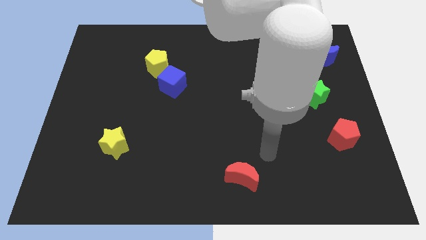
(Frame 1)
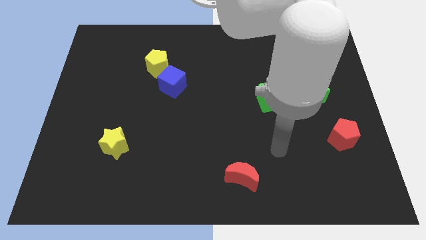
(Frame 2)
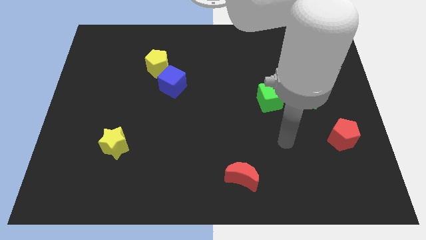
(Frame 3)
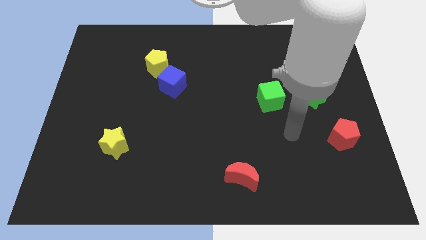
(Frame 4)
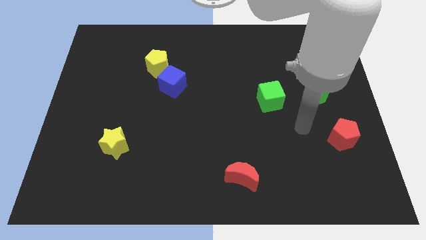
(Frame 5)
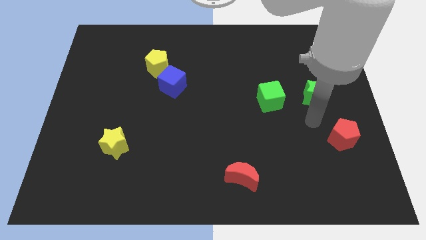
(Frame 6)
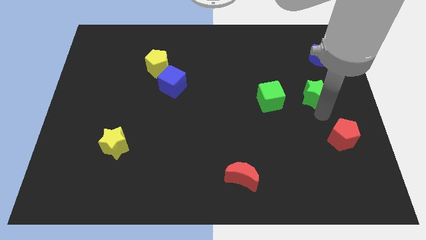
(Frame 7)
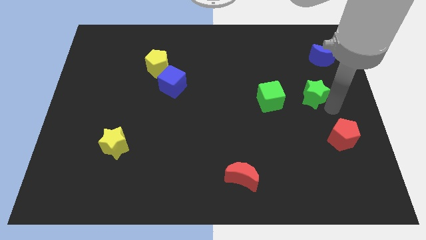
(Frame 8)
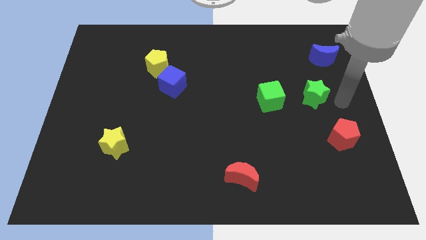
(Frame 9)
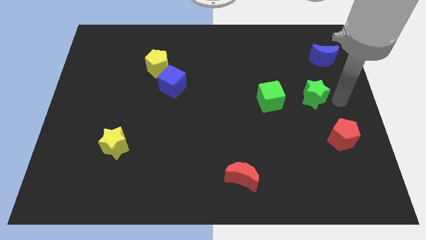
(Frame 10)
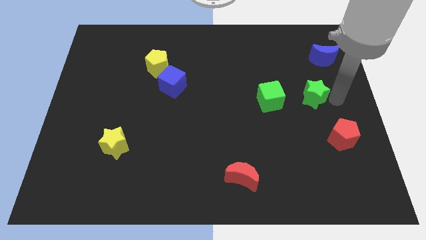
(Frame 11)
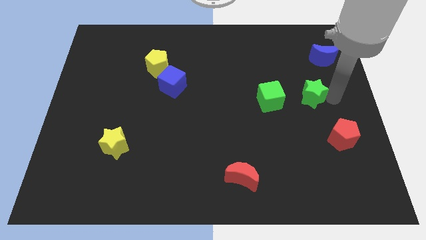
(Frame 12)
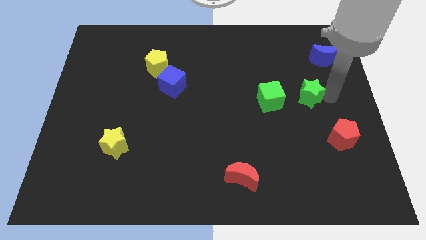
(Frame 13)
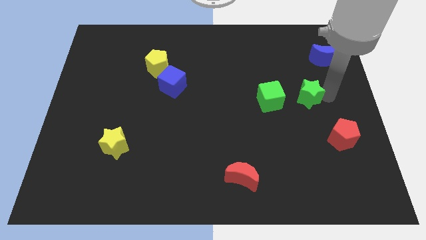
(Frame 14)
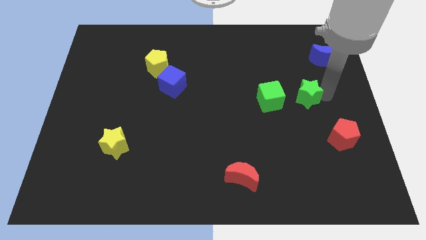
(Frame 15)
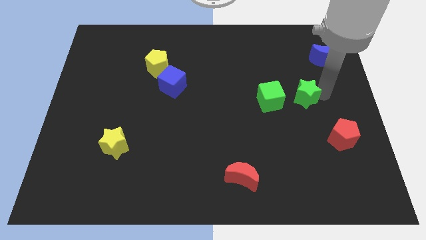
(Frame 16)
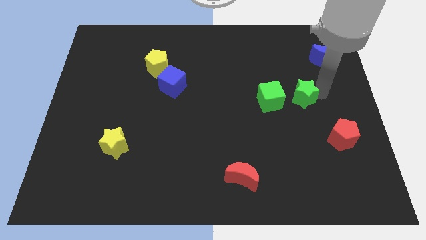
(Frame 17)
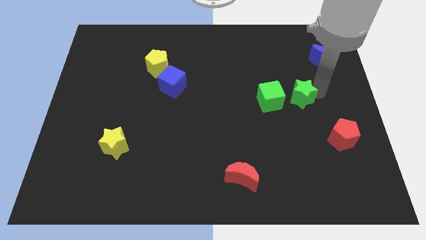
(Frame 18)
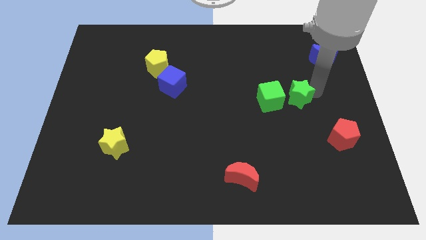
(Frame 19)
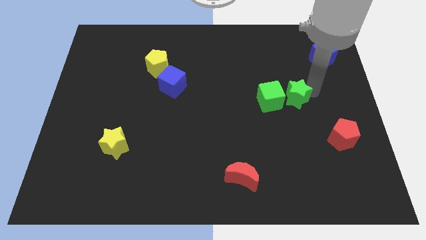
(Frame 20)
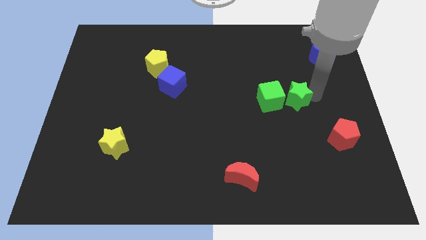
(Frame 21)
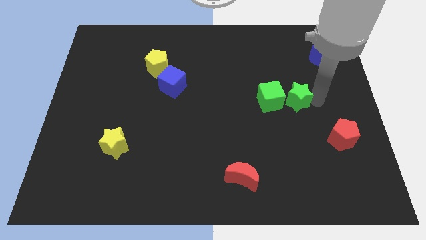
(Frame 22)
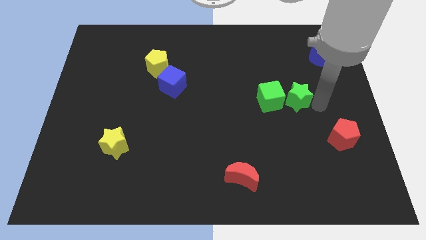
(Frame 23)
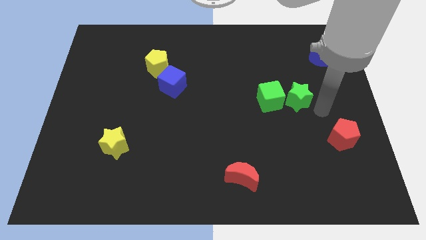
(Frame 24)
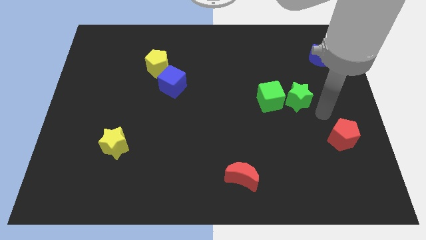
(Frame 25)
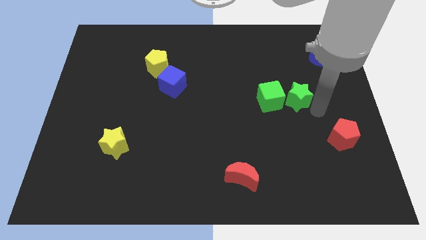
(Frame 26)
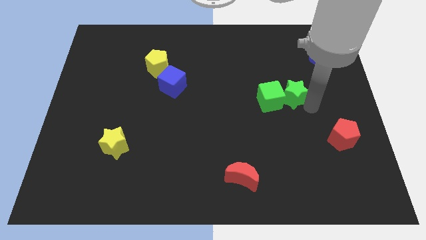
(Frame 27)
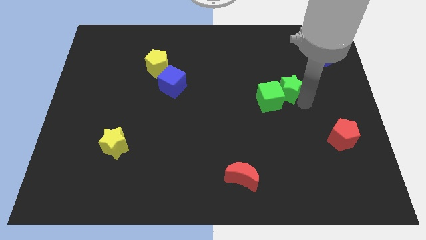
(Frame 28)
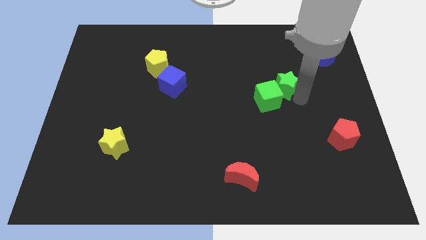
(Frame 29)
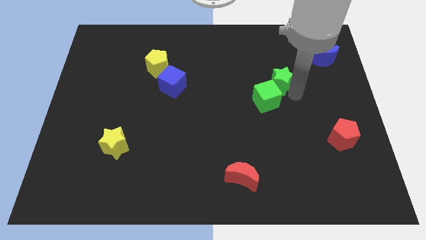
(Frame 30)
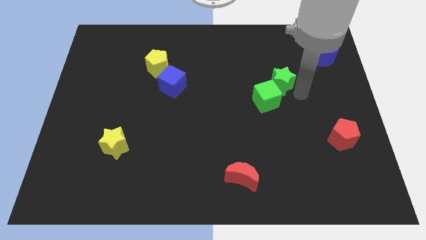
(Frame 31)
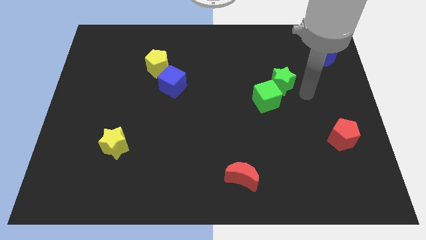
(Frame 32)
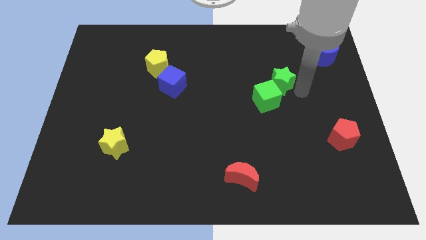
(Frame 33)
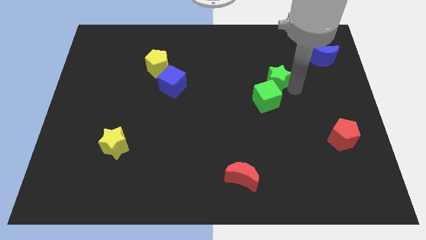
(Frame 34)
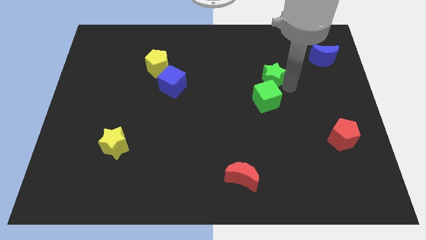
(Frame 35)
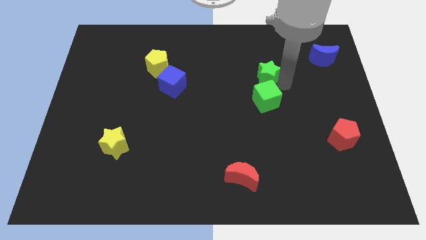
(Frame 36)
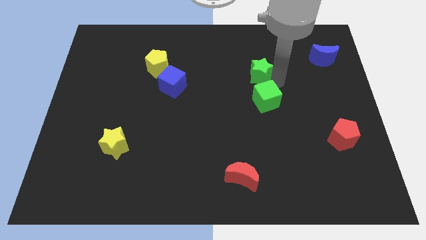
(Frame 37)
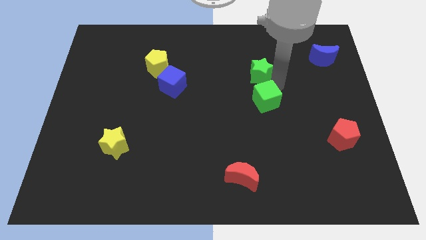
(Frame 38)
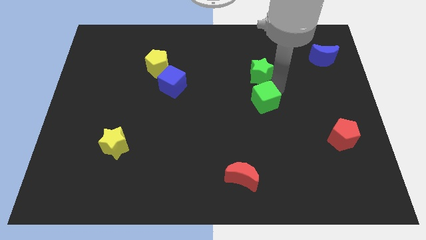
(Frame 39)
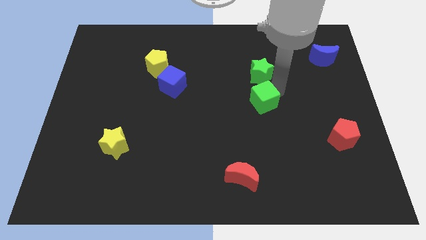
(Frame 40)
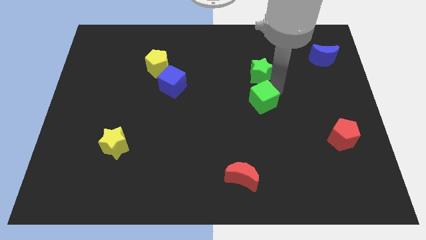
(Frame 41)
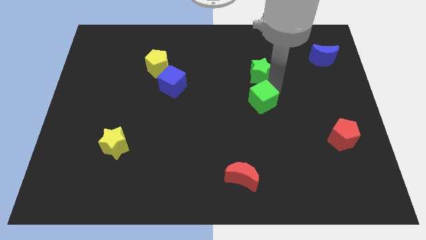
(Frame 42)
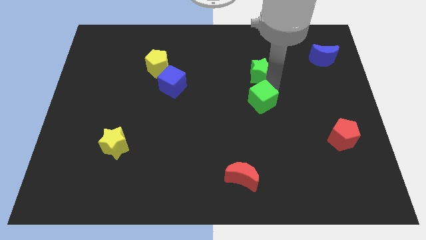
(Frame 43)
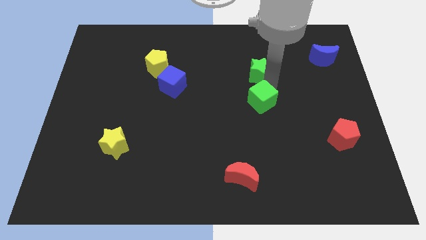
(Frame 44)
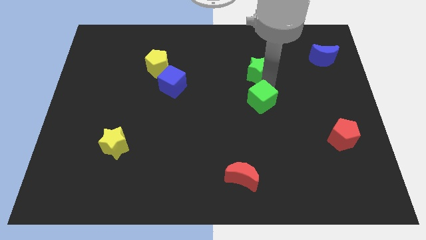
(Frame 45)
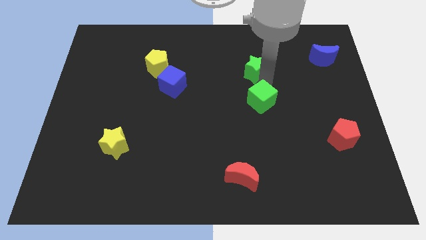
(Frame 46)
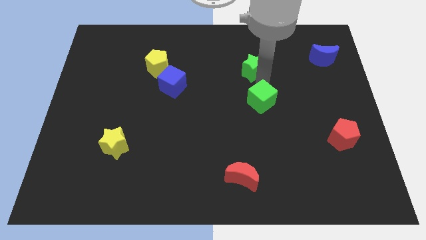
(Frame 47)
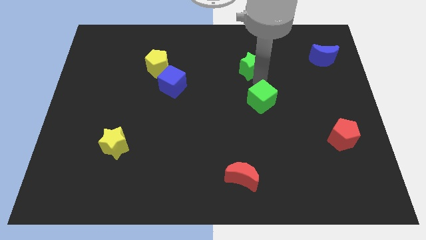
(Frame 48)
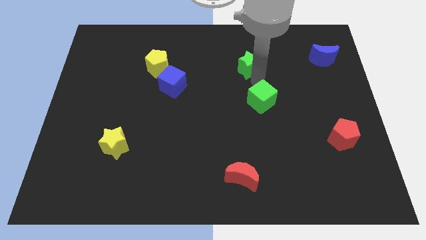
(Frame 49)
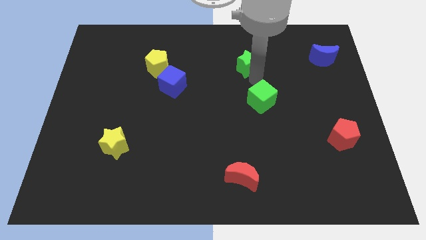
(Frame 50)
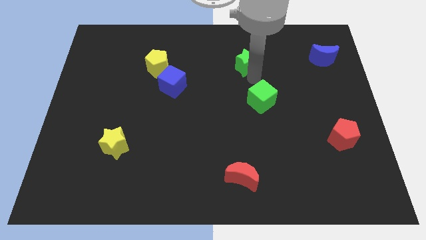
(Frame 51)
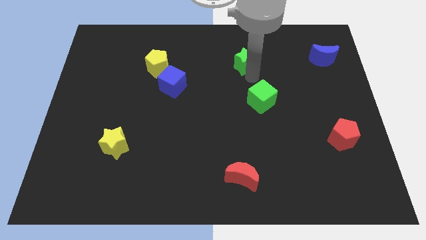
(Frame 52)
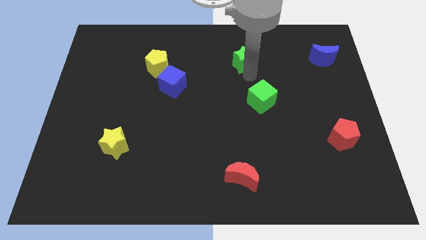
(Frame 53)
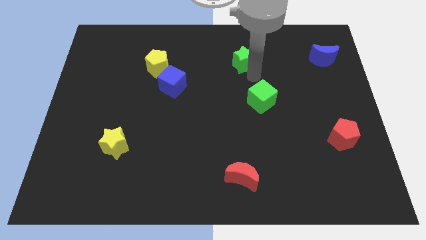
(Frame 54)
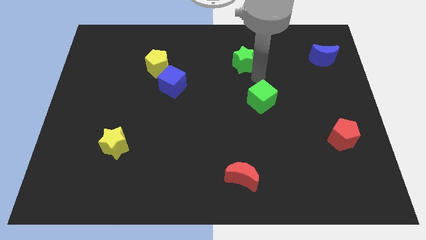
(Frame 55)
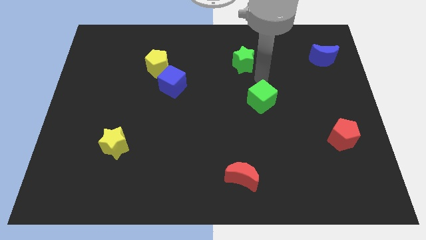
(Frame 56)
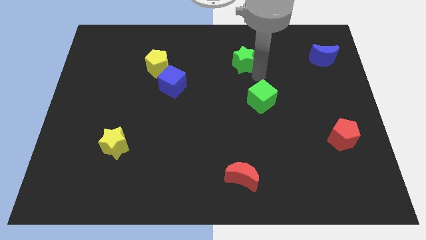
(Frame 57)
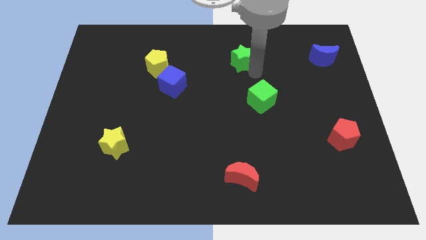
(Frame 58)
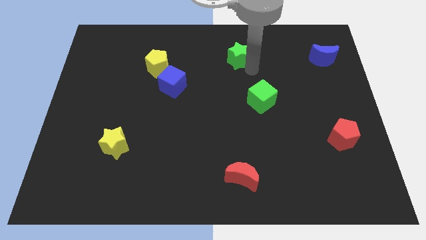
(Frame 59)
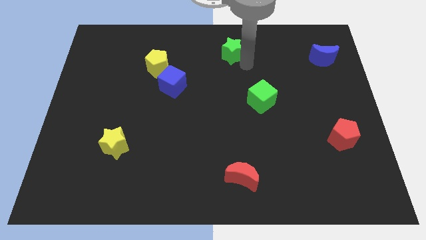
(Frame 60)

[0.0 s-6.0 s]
slide the green star to the top
